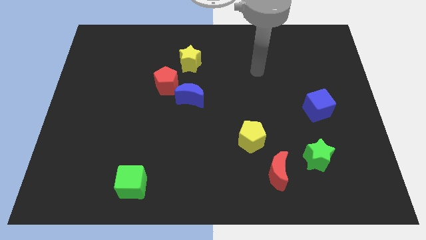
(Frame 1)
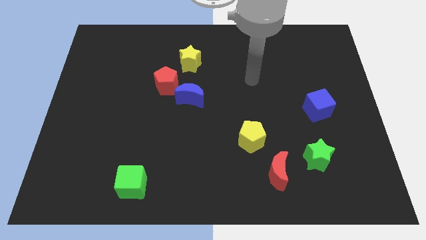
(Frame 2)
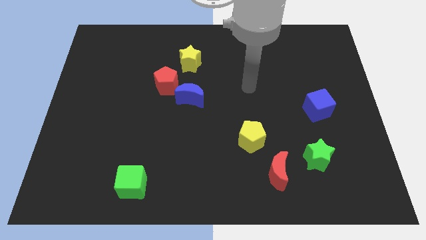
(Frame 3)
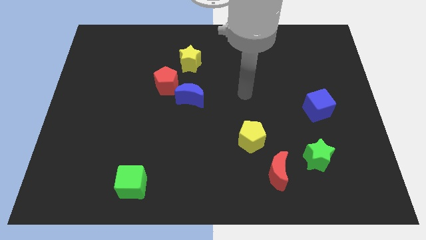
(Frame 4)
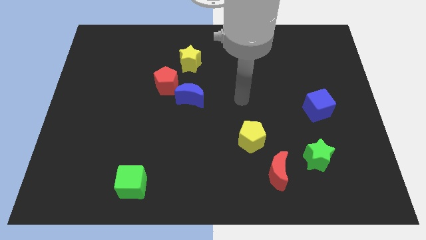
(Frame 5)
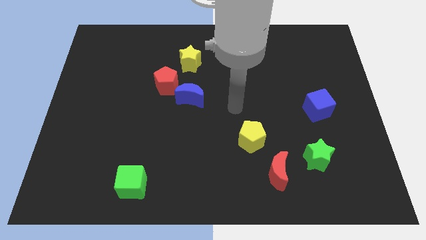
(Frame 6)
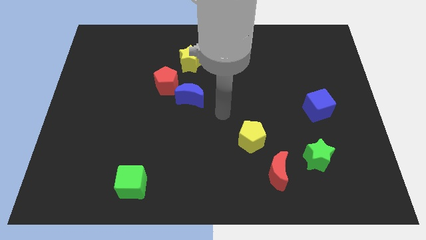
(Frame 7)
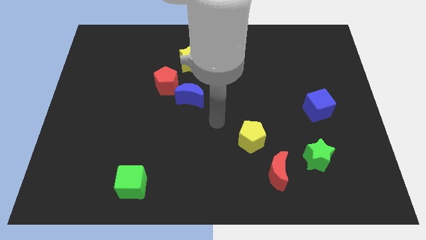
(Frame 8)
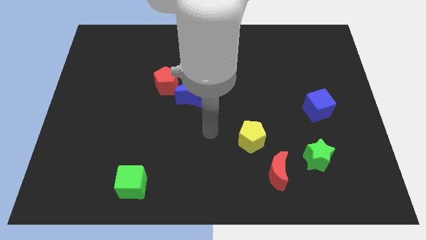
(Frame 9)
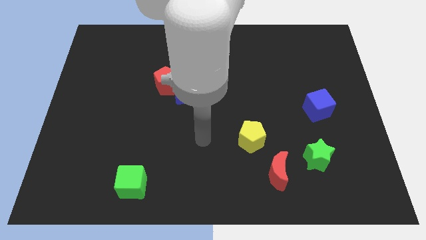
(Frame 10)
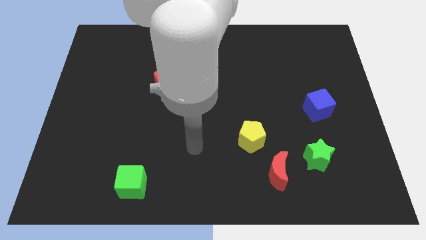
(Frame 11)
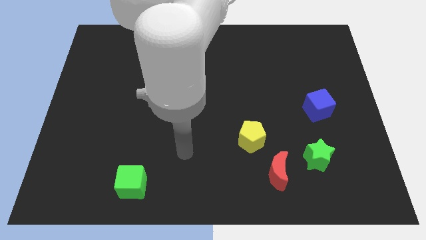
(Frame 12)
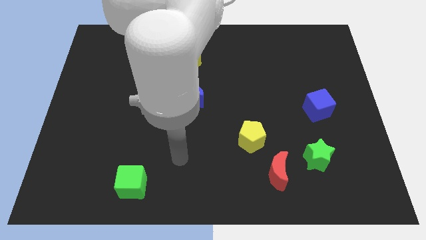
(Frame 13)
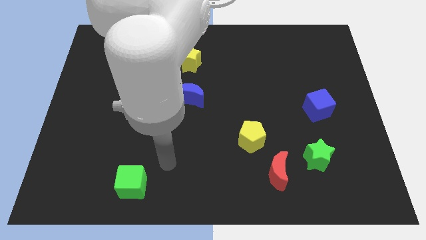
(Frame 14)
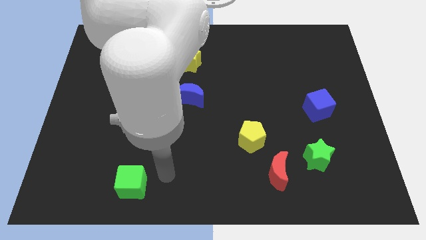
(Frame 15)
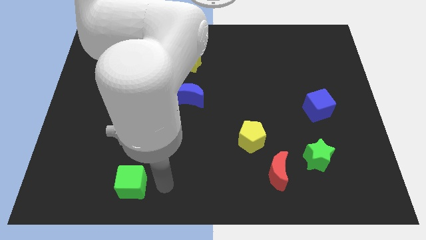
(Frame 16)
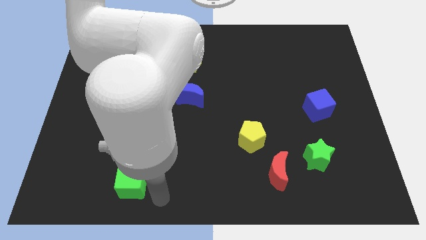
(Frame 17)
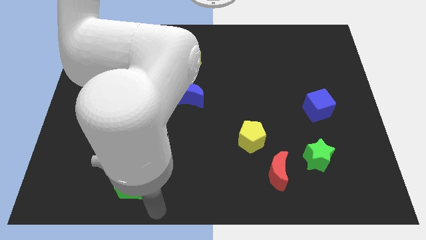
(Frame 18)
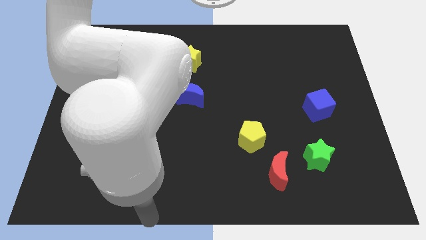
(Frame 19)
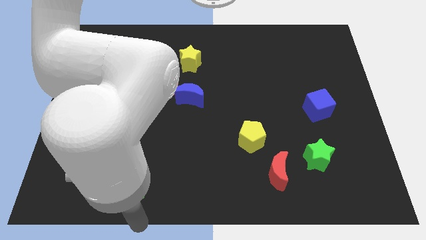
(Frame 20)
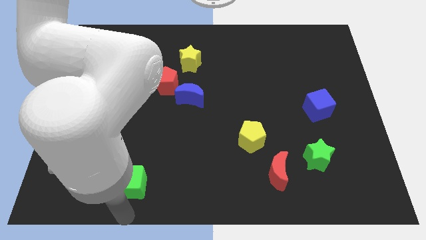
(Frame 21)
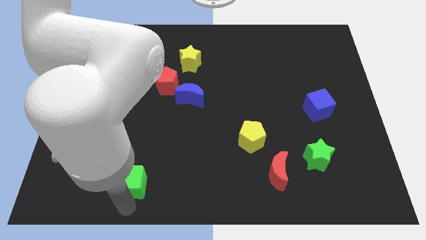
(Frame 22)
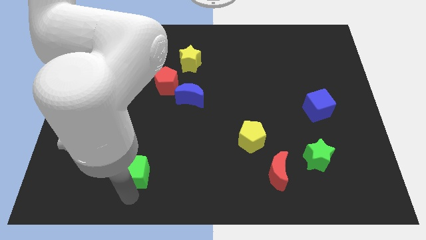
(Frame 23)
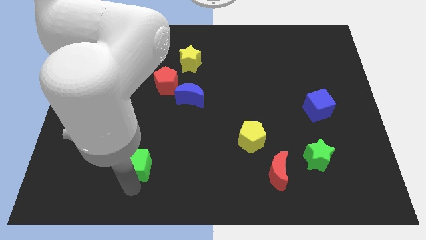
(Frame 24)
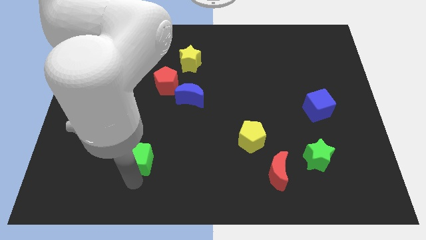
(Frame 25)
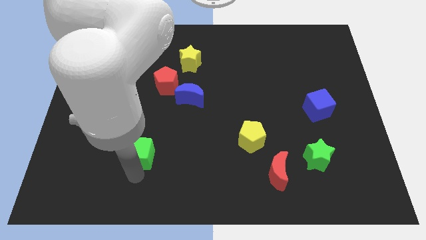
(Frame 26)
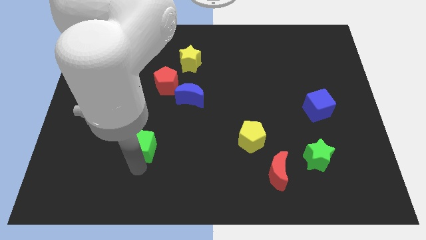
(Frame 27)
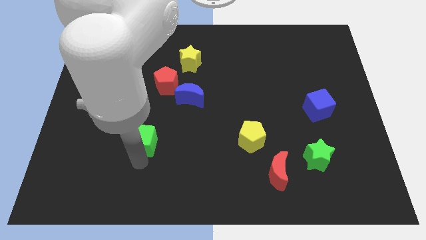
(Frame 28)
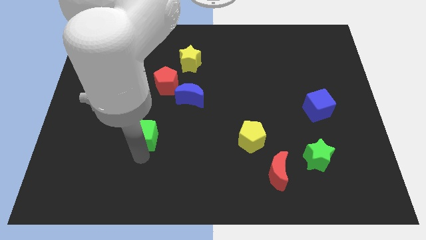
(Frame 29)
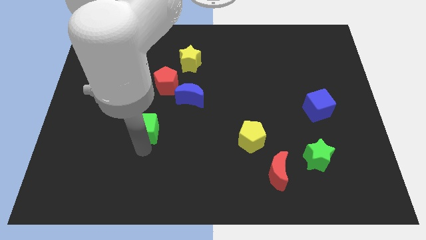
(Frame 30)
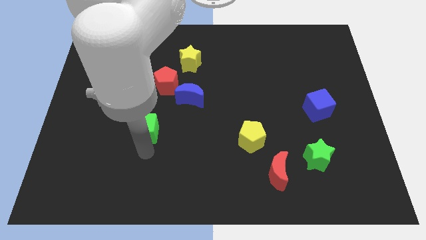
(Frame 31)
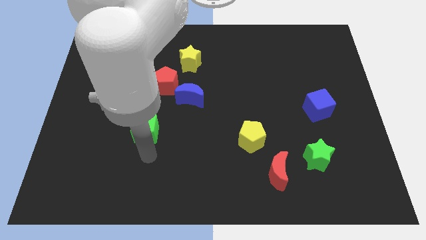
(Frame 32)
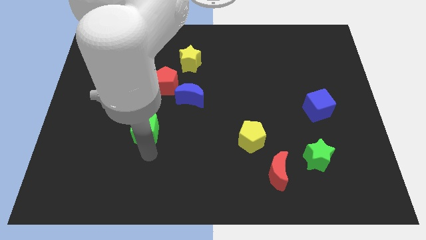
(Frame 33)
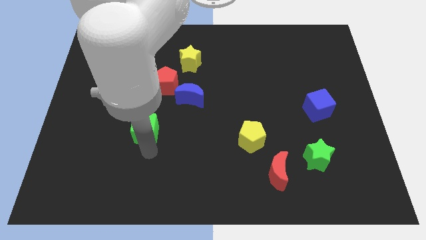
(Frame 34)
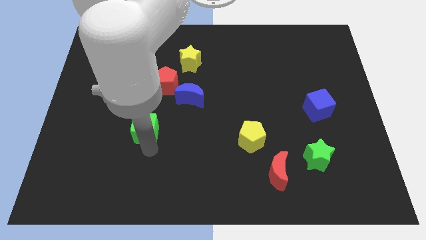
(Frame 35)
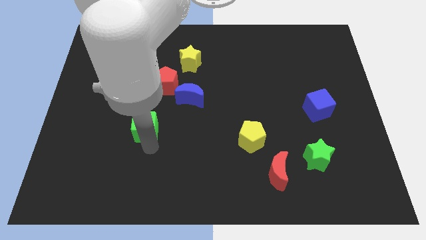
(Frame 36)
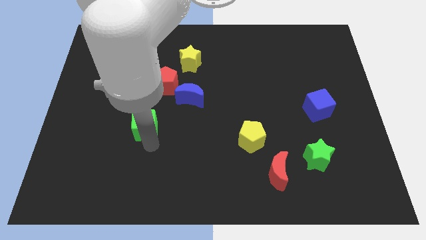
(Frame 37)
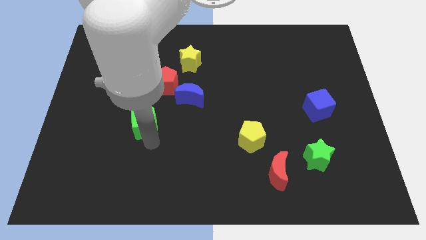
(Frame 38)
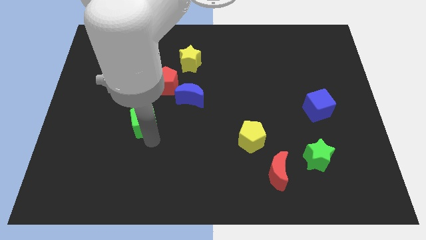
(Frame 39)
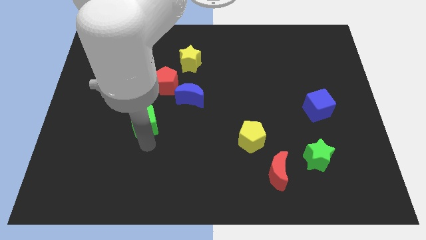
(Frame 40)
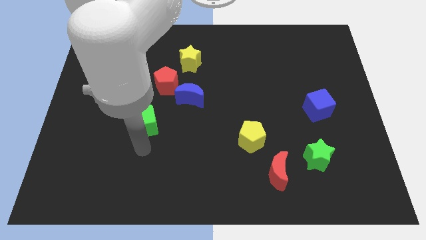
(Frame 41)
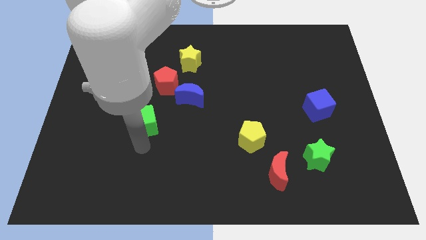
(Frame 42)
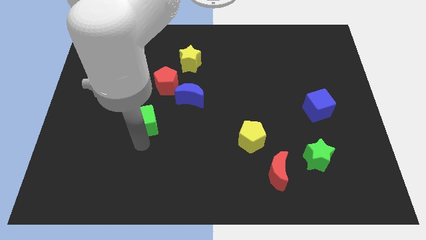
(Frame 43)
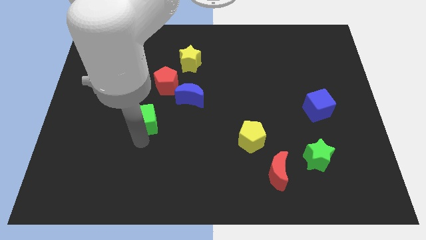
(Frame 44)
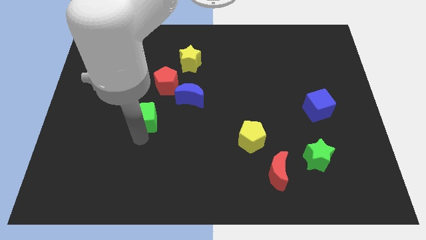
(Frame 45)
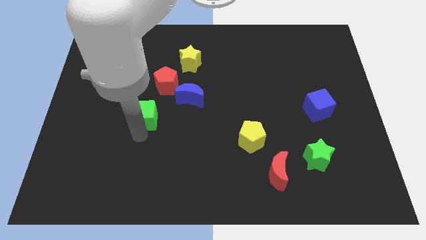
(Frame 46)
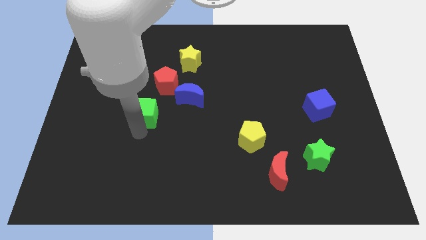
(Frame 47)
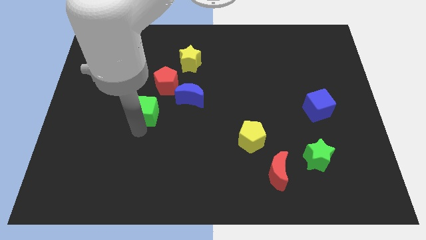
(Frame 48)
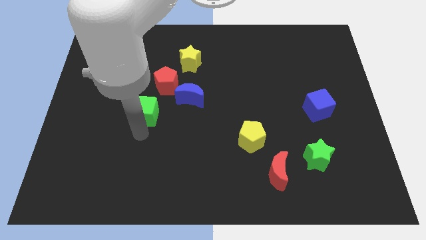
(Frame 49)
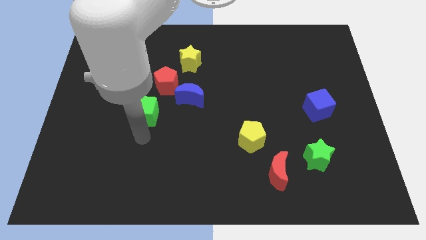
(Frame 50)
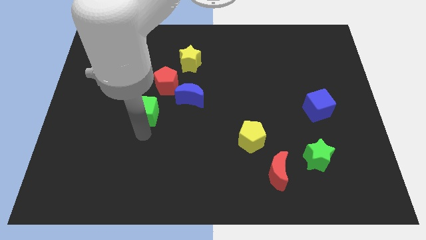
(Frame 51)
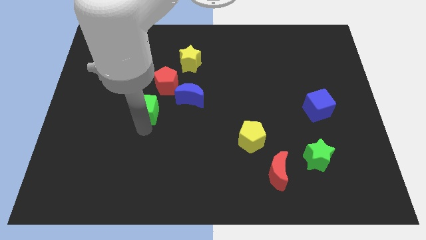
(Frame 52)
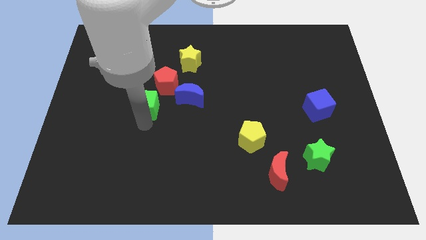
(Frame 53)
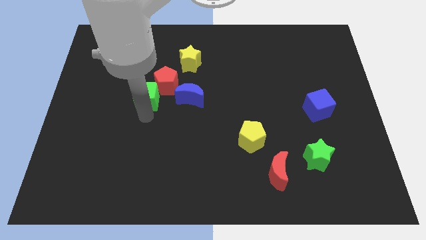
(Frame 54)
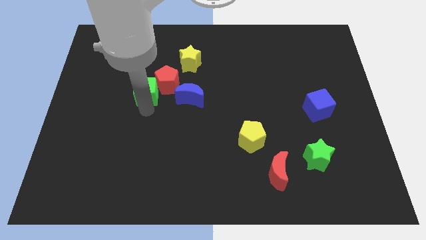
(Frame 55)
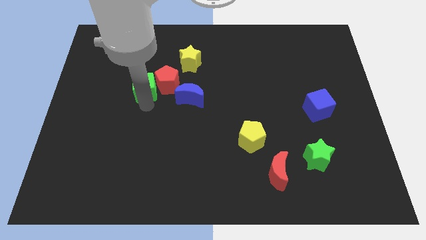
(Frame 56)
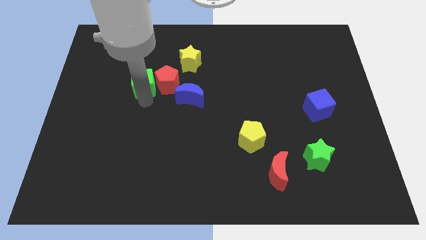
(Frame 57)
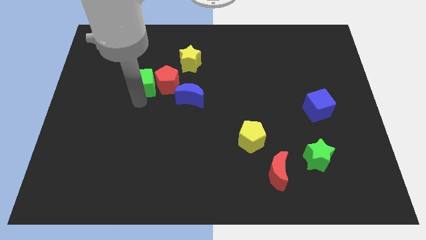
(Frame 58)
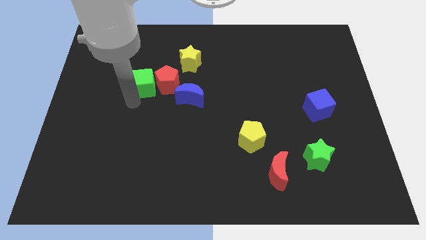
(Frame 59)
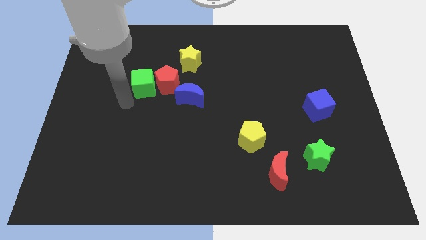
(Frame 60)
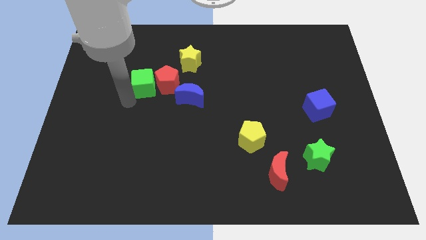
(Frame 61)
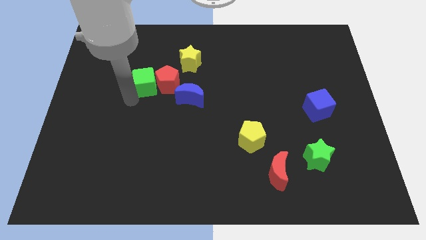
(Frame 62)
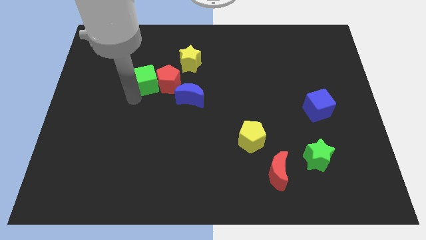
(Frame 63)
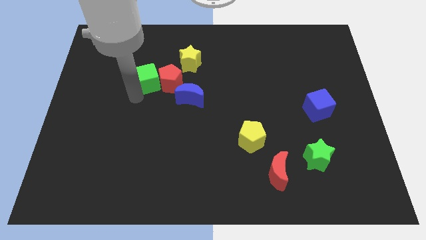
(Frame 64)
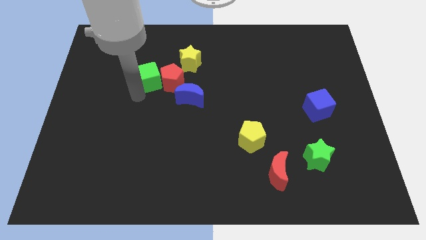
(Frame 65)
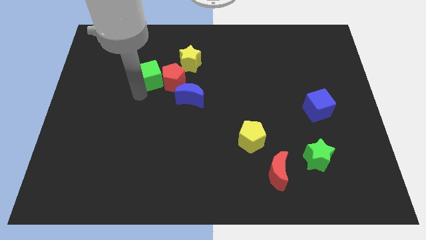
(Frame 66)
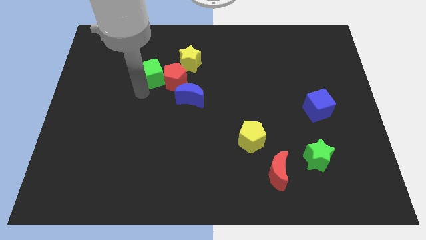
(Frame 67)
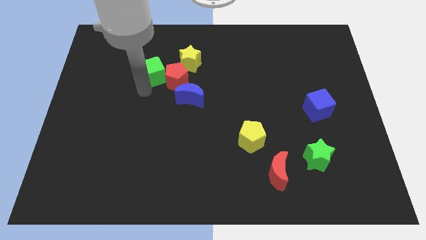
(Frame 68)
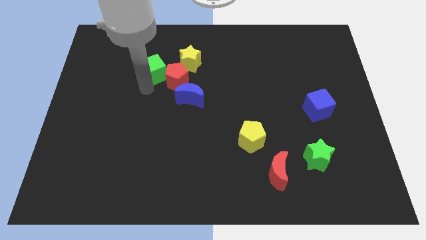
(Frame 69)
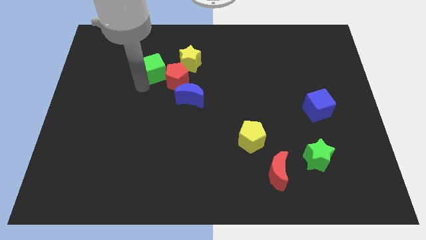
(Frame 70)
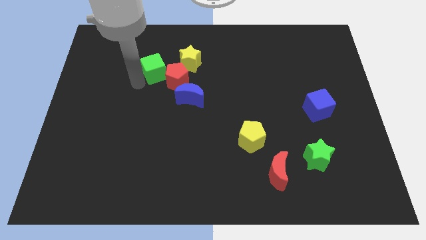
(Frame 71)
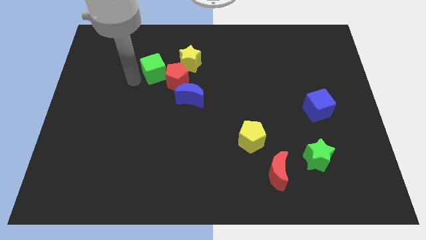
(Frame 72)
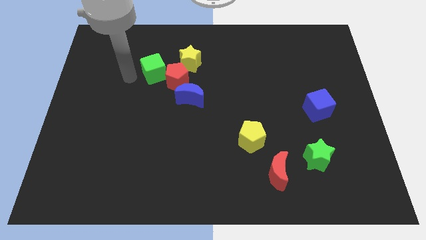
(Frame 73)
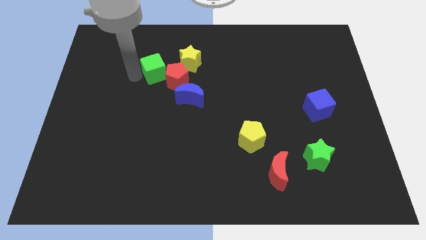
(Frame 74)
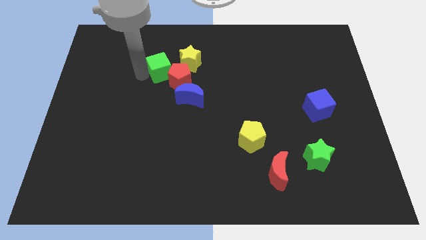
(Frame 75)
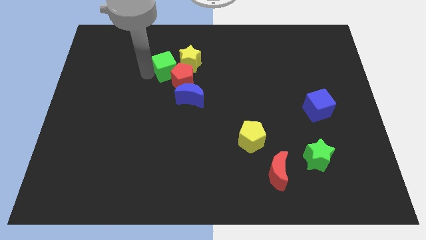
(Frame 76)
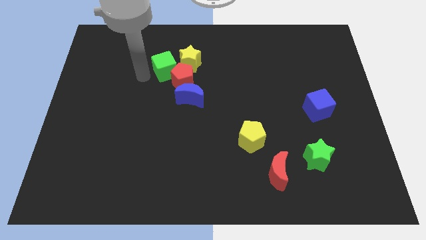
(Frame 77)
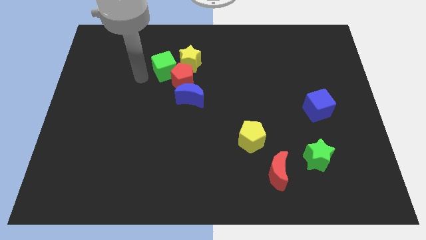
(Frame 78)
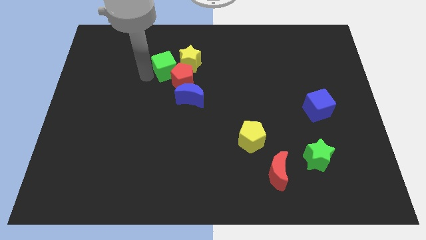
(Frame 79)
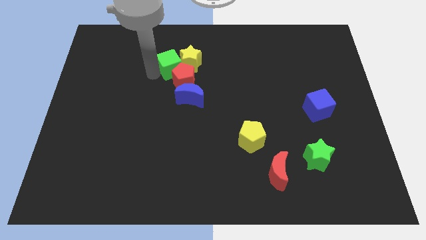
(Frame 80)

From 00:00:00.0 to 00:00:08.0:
push the green cube towards the yellow star
